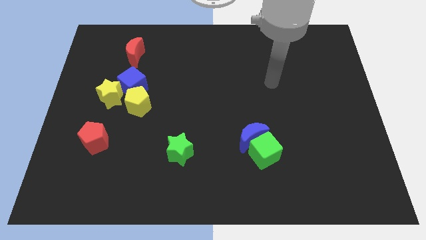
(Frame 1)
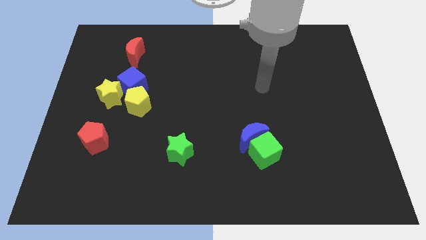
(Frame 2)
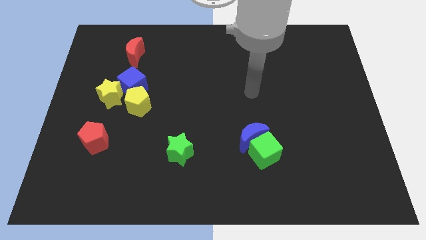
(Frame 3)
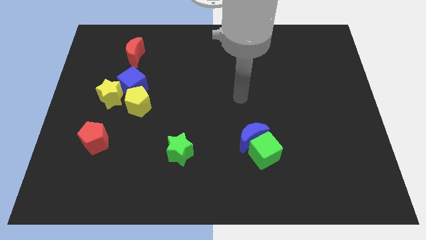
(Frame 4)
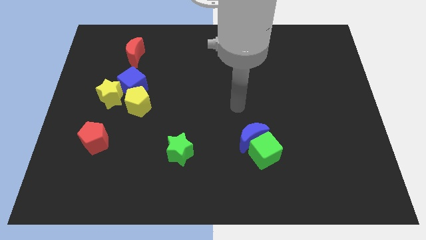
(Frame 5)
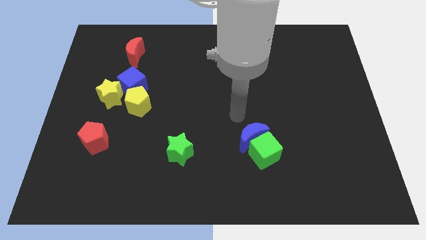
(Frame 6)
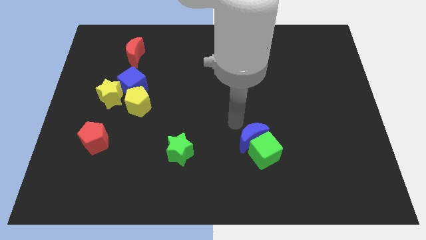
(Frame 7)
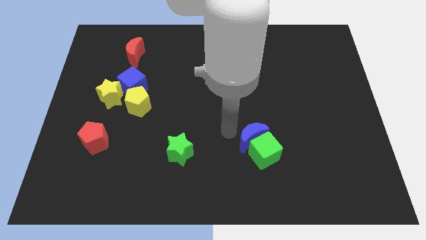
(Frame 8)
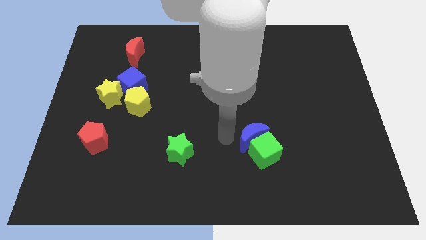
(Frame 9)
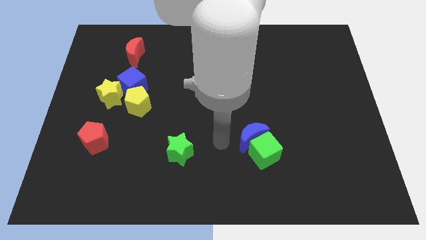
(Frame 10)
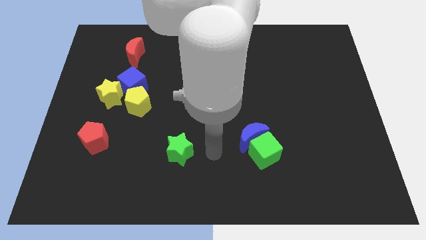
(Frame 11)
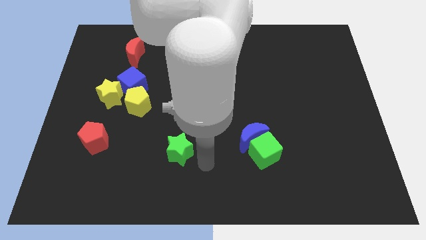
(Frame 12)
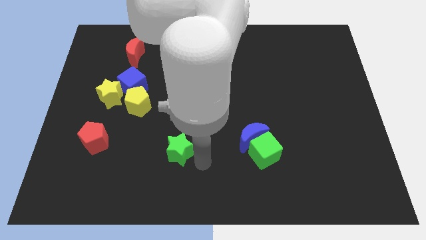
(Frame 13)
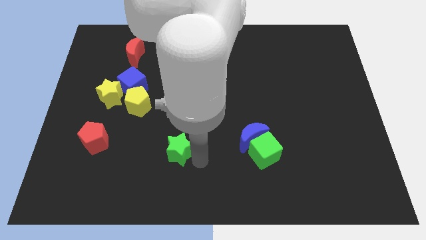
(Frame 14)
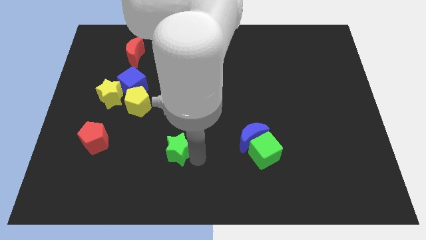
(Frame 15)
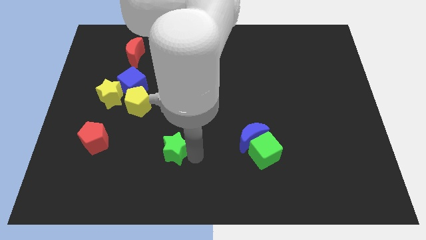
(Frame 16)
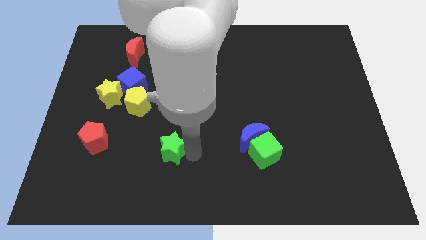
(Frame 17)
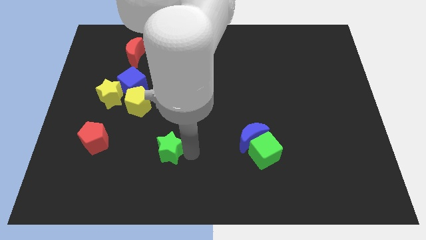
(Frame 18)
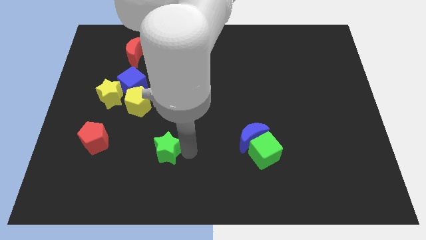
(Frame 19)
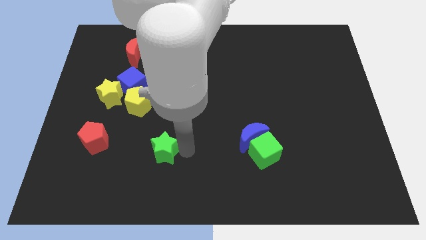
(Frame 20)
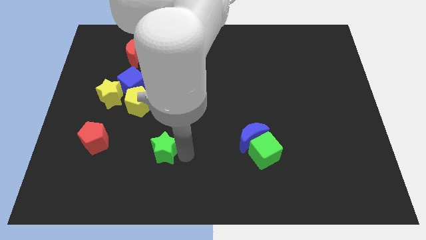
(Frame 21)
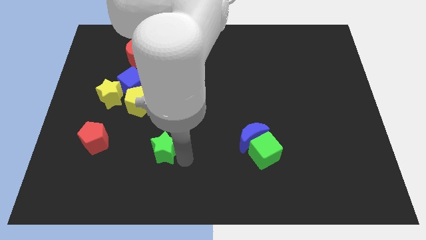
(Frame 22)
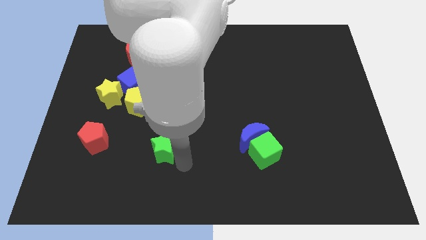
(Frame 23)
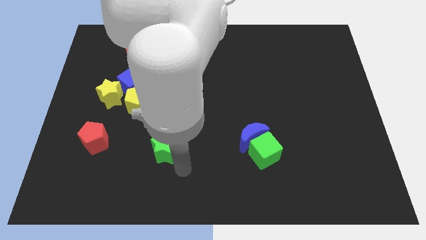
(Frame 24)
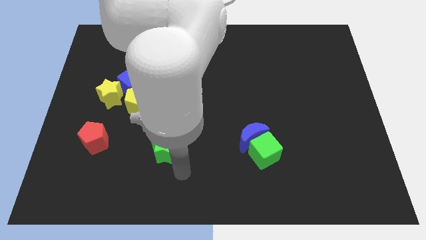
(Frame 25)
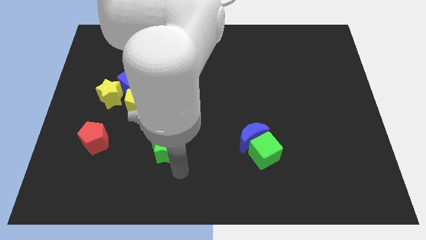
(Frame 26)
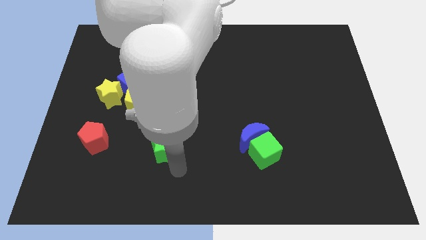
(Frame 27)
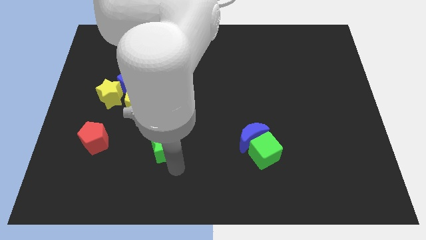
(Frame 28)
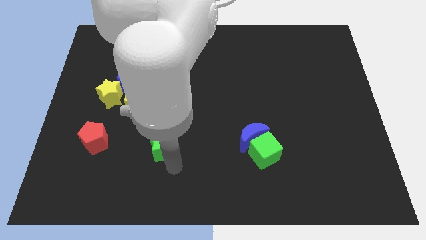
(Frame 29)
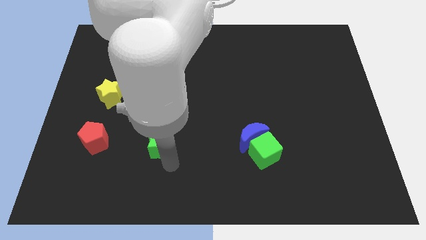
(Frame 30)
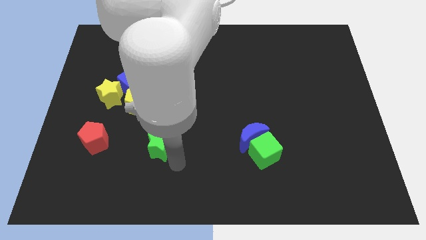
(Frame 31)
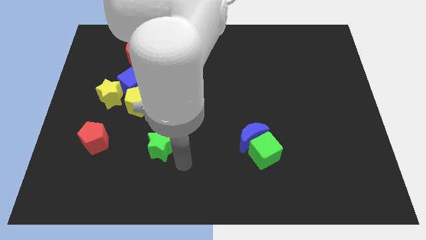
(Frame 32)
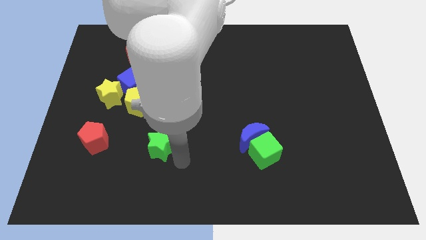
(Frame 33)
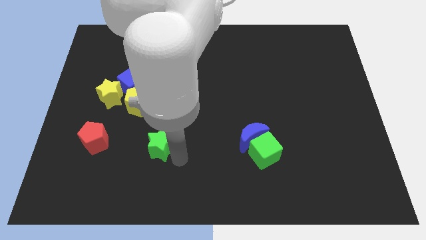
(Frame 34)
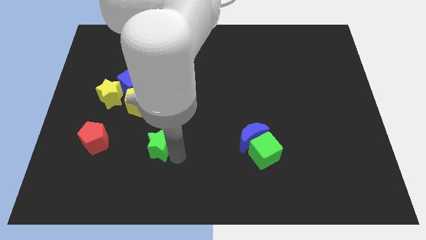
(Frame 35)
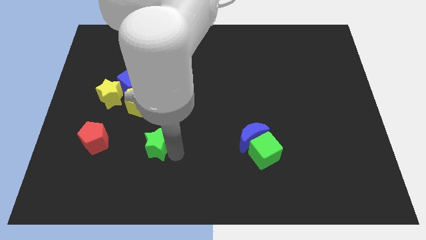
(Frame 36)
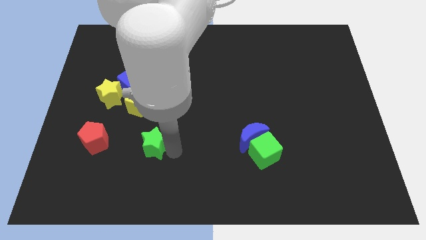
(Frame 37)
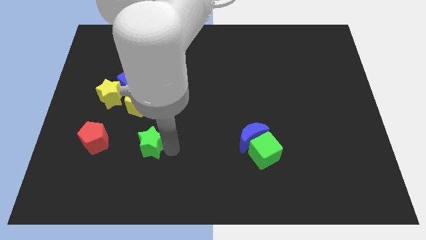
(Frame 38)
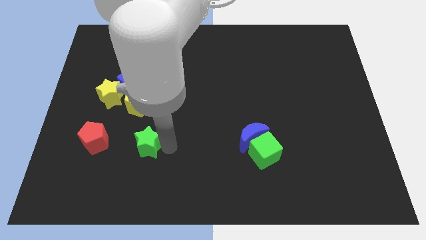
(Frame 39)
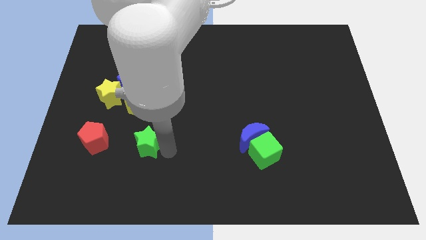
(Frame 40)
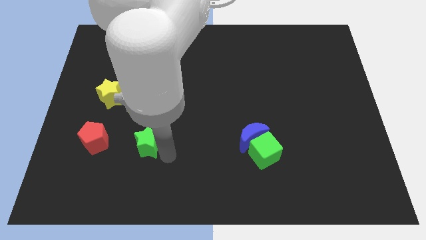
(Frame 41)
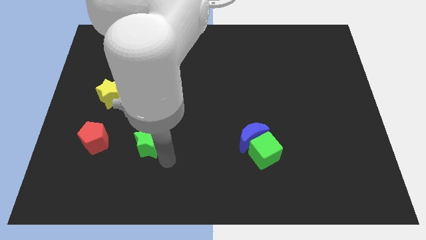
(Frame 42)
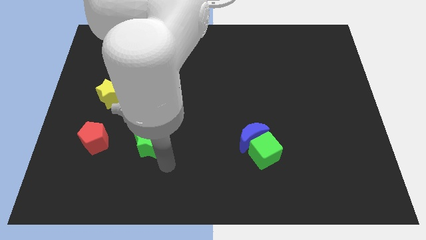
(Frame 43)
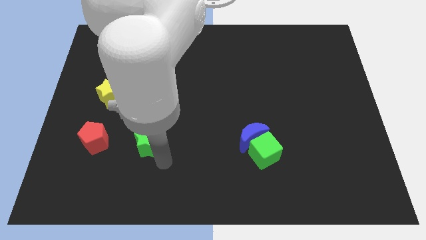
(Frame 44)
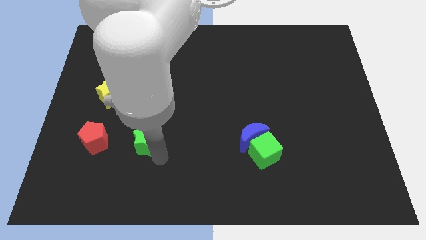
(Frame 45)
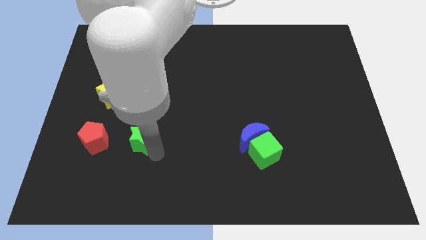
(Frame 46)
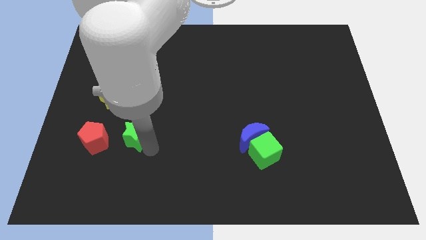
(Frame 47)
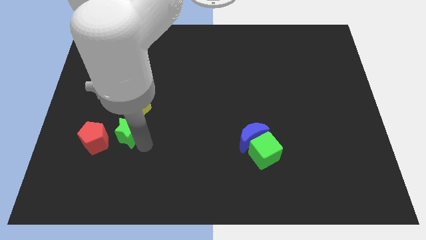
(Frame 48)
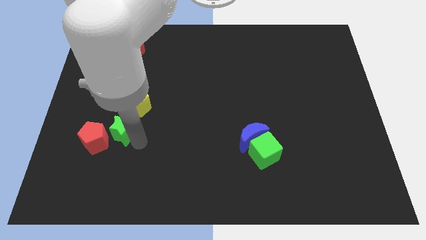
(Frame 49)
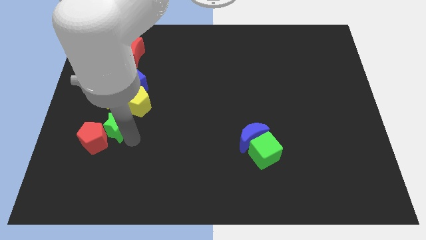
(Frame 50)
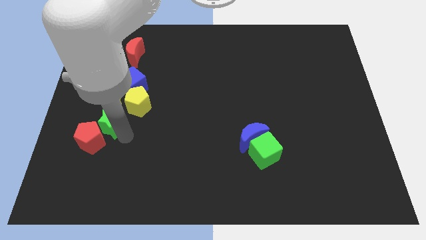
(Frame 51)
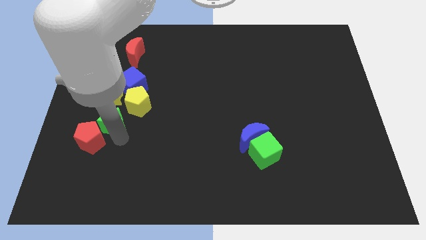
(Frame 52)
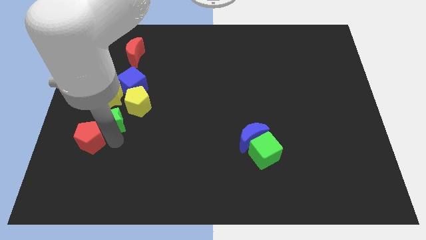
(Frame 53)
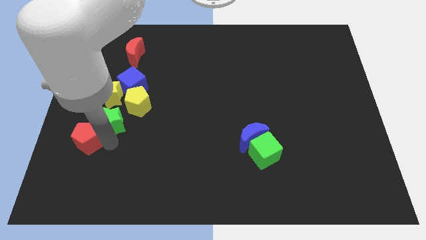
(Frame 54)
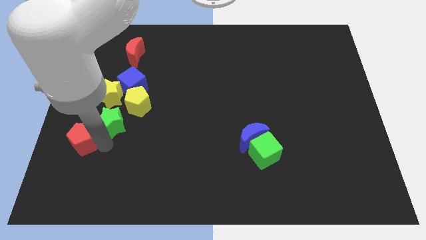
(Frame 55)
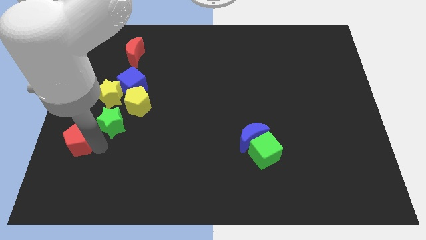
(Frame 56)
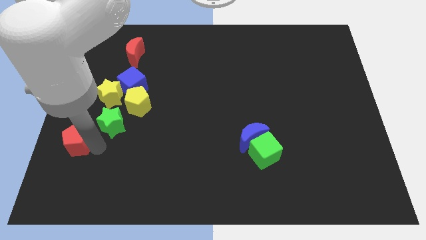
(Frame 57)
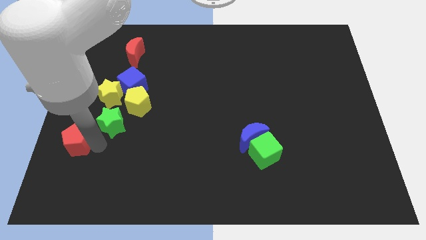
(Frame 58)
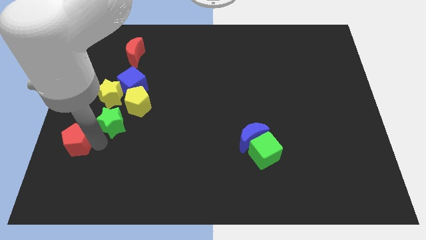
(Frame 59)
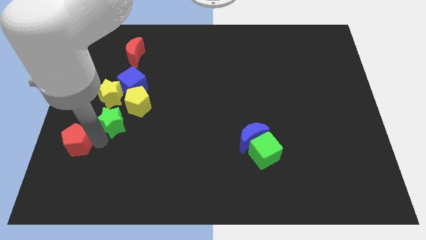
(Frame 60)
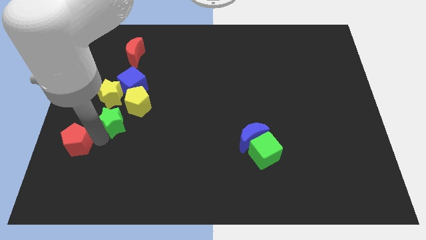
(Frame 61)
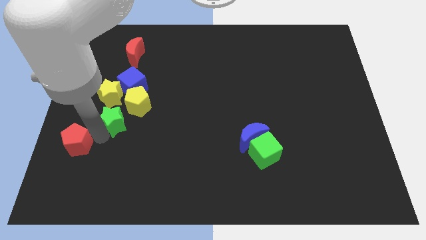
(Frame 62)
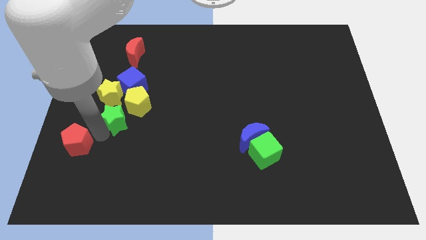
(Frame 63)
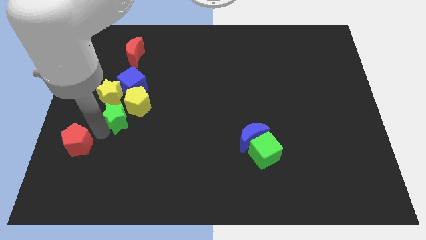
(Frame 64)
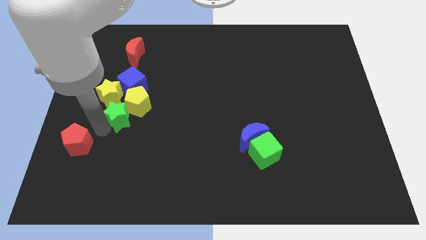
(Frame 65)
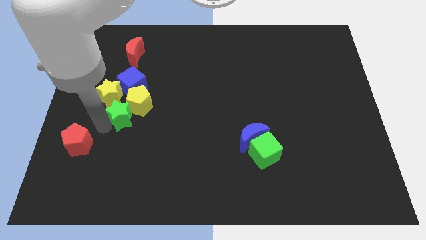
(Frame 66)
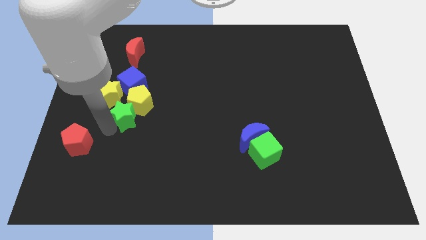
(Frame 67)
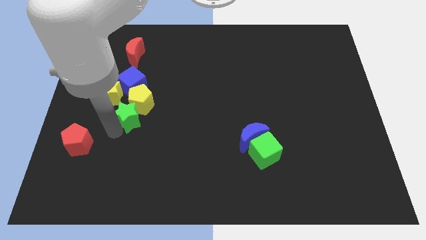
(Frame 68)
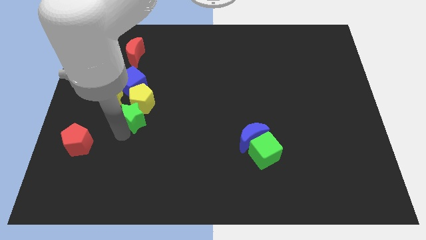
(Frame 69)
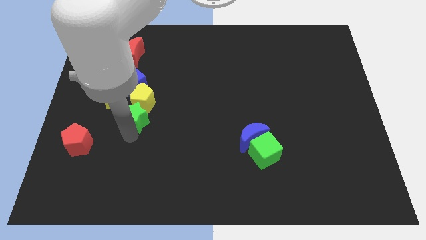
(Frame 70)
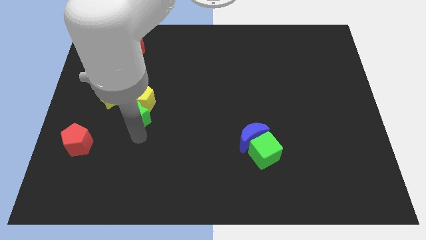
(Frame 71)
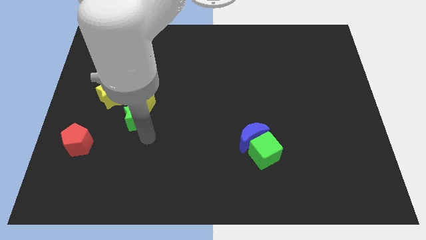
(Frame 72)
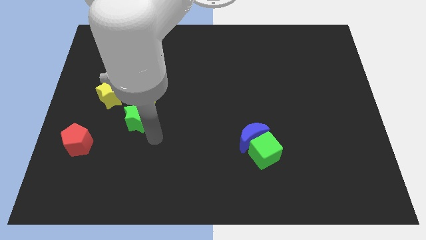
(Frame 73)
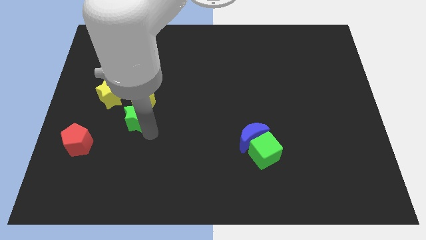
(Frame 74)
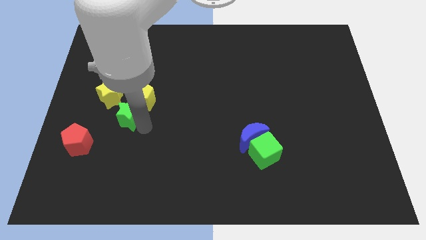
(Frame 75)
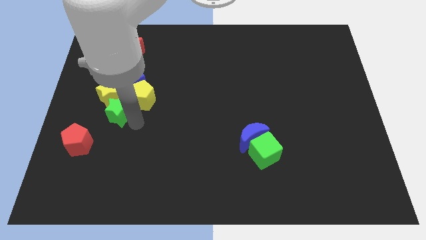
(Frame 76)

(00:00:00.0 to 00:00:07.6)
push the green star close to the yellow star

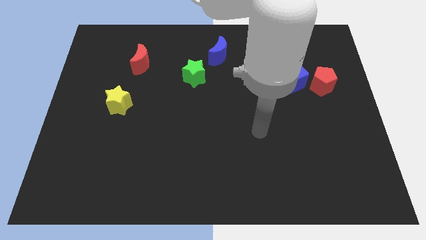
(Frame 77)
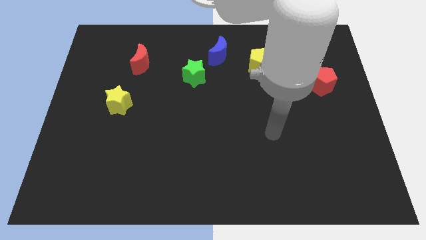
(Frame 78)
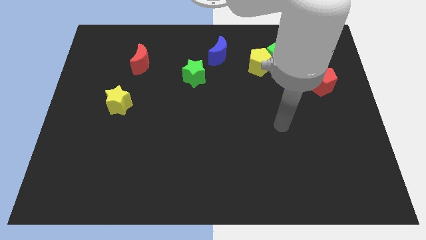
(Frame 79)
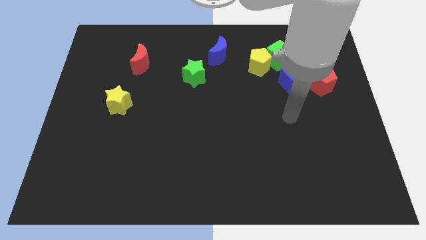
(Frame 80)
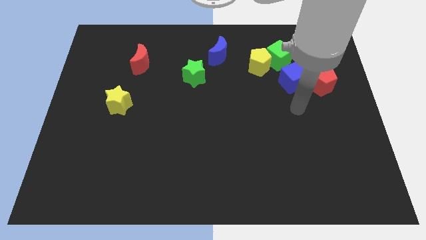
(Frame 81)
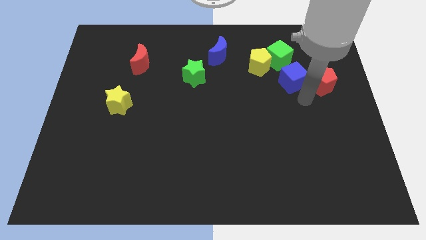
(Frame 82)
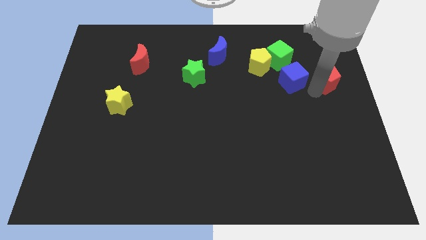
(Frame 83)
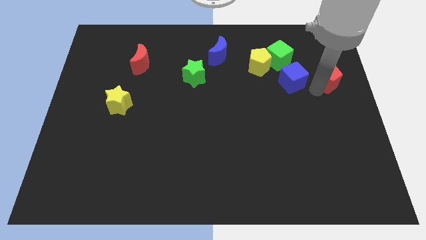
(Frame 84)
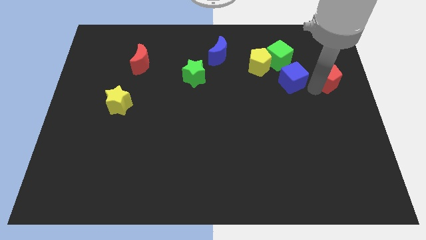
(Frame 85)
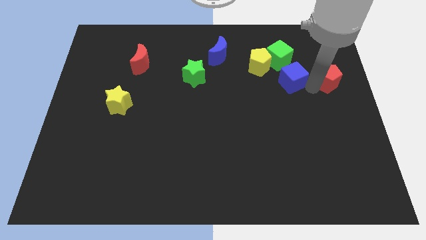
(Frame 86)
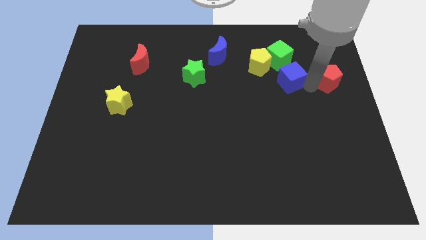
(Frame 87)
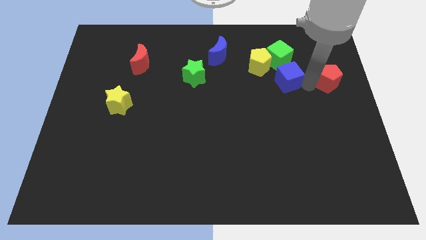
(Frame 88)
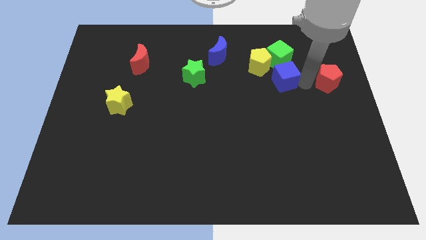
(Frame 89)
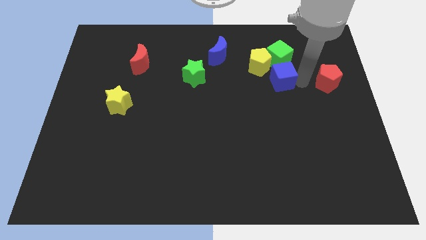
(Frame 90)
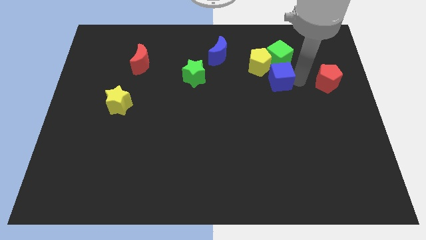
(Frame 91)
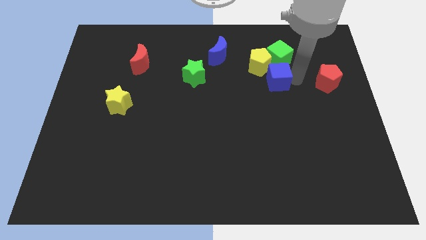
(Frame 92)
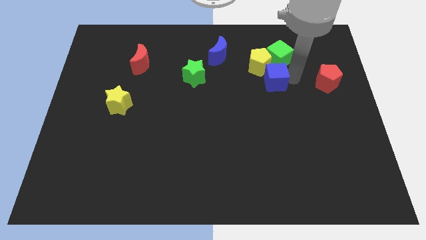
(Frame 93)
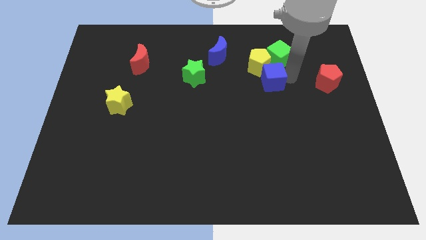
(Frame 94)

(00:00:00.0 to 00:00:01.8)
move the blue cube next to the yellow pentagon
